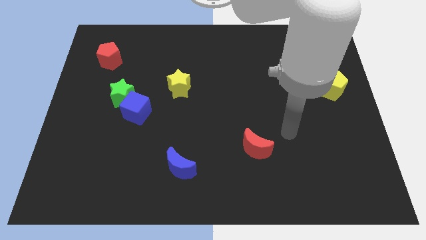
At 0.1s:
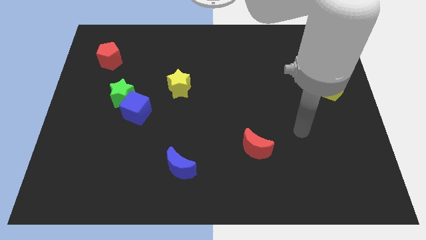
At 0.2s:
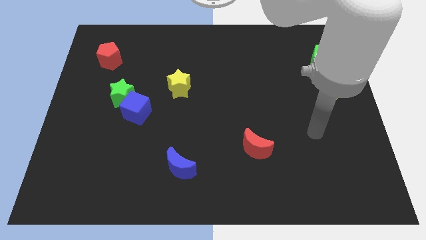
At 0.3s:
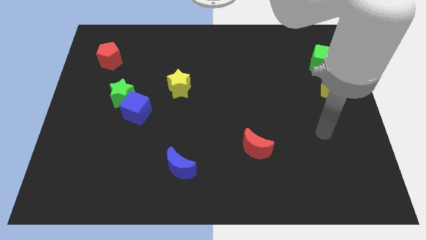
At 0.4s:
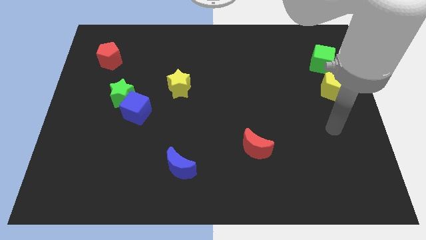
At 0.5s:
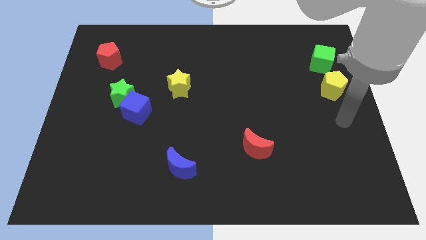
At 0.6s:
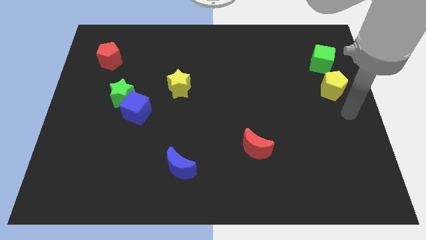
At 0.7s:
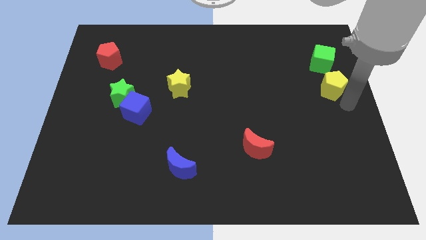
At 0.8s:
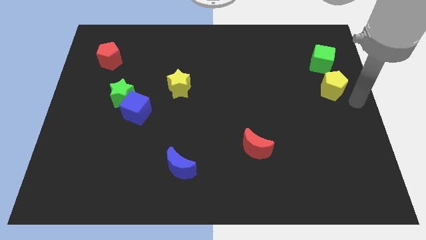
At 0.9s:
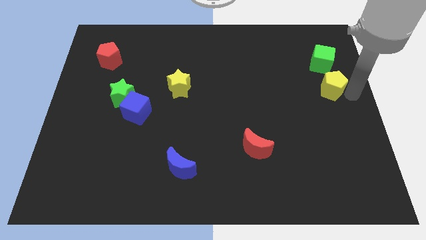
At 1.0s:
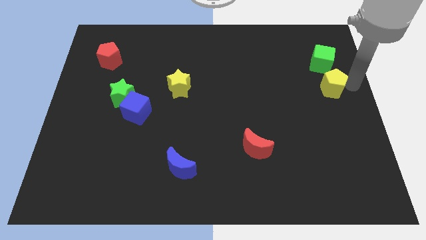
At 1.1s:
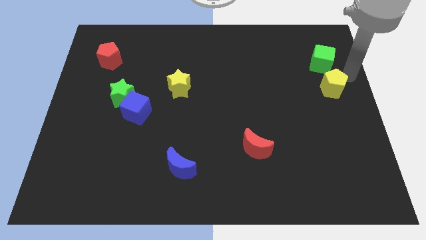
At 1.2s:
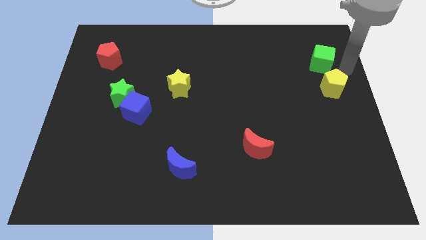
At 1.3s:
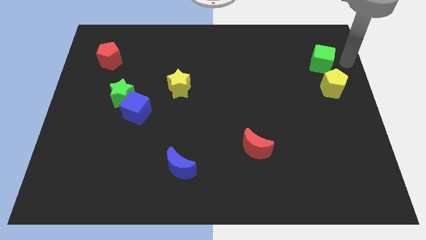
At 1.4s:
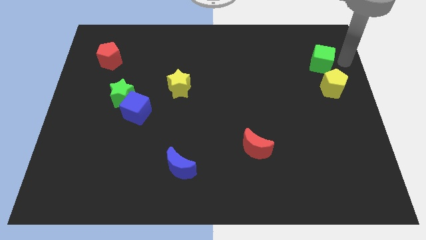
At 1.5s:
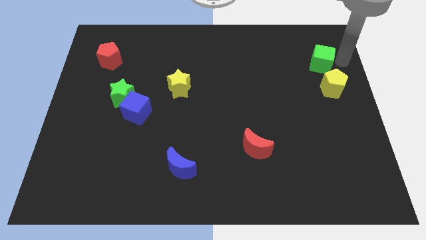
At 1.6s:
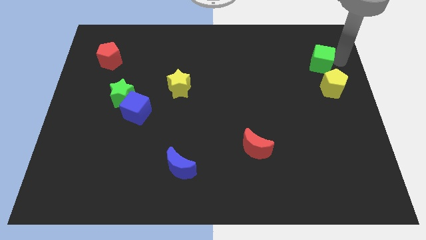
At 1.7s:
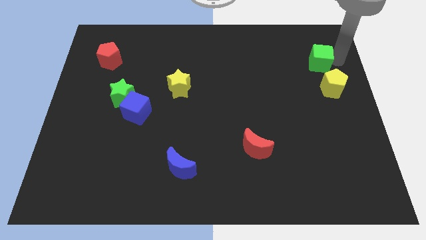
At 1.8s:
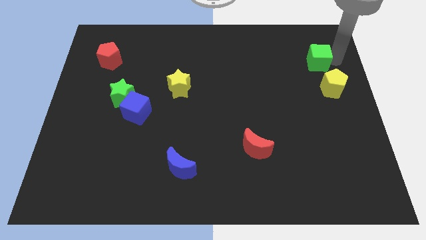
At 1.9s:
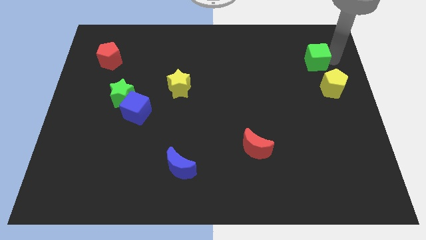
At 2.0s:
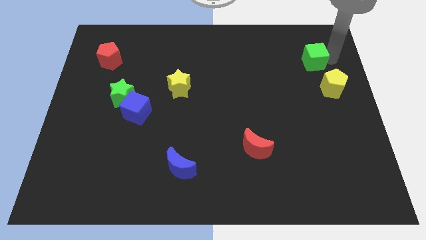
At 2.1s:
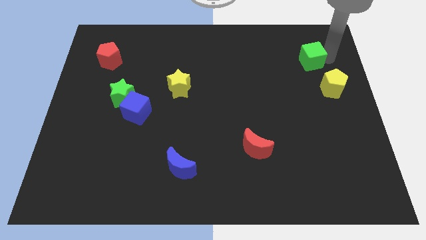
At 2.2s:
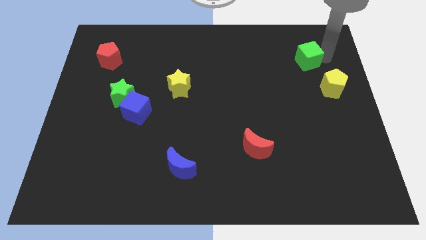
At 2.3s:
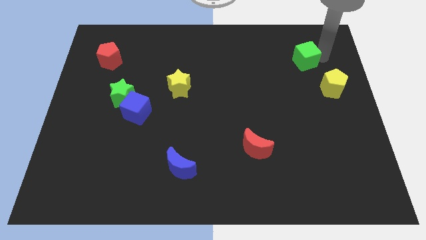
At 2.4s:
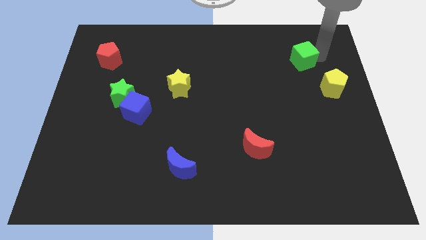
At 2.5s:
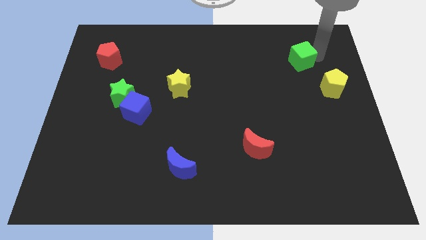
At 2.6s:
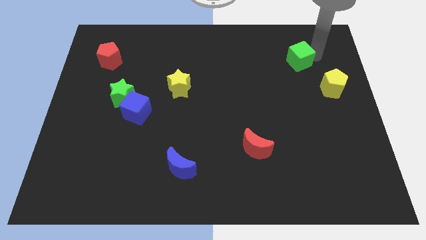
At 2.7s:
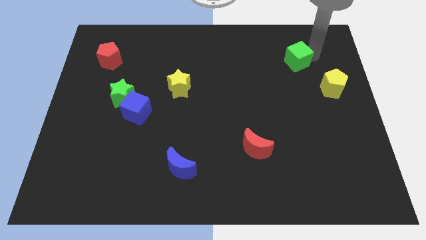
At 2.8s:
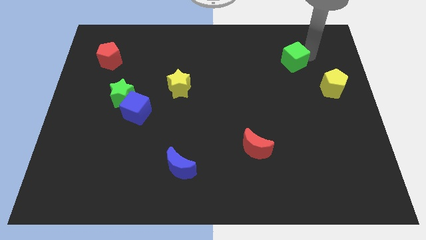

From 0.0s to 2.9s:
slightly push the green cube left

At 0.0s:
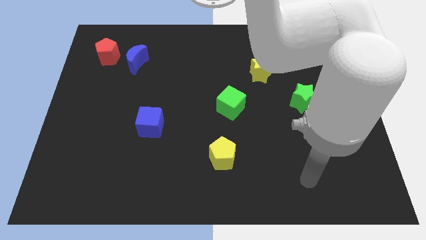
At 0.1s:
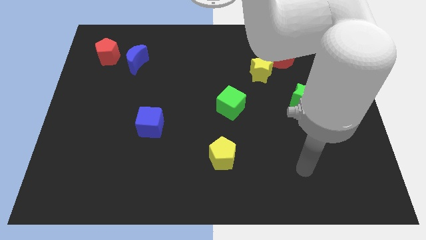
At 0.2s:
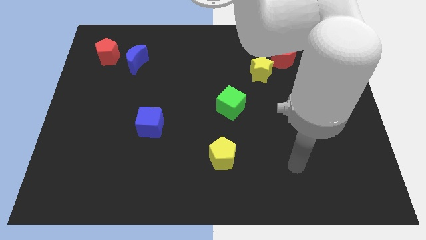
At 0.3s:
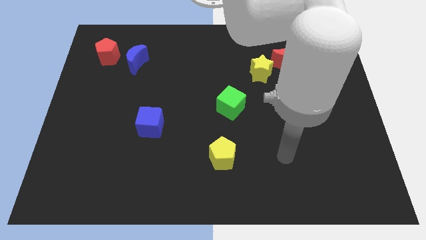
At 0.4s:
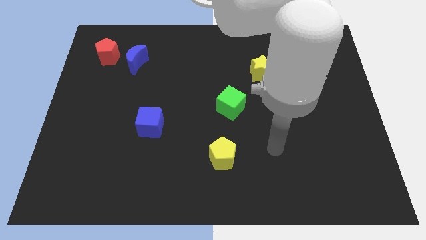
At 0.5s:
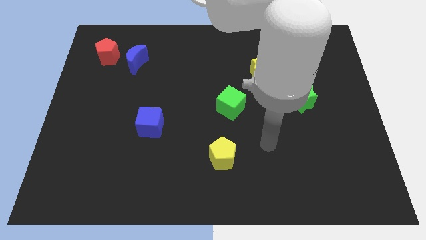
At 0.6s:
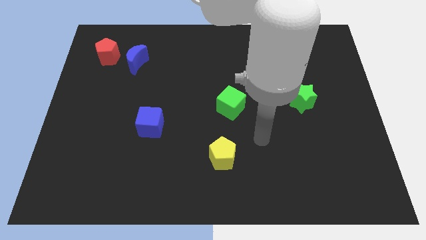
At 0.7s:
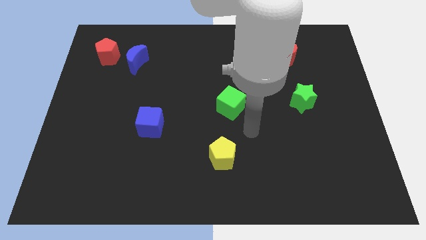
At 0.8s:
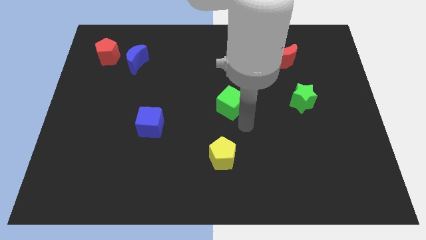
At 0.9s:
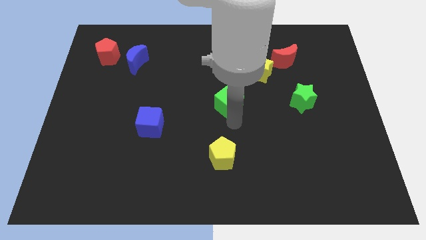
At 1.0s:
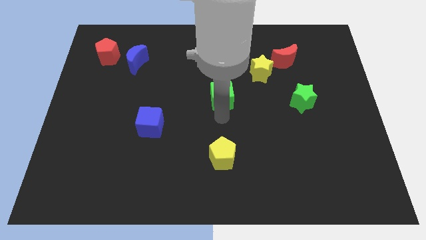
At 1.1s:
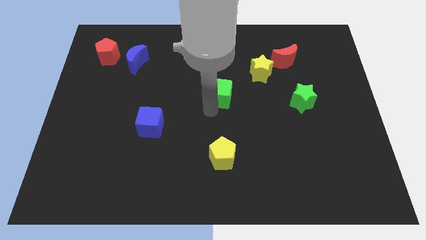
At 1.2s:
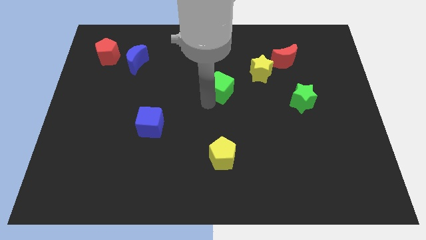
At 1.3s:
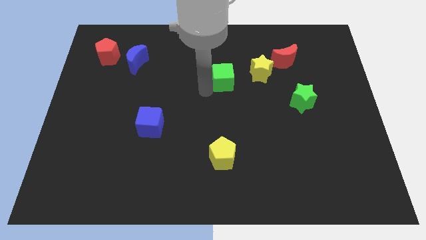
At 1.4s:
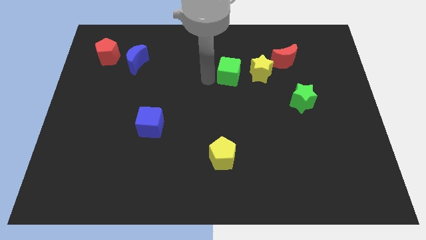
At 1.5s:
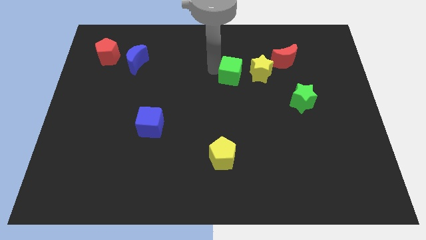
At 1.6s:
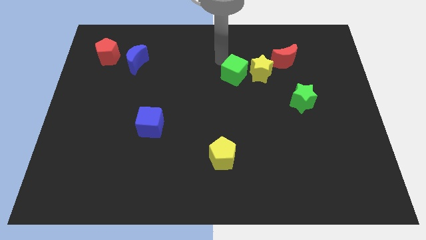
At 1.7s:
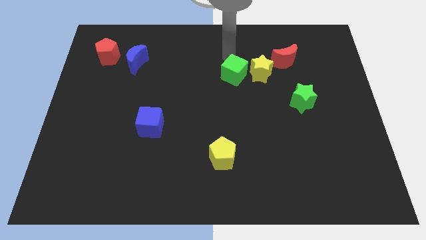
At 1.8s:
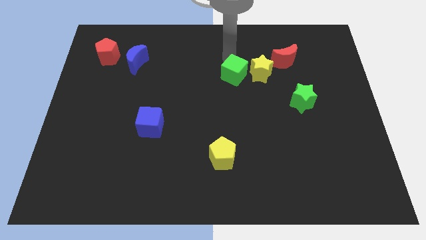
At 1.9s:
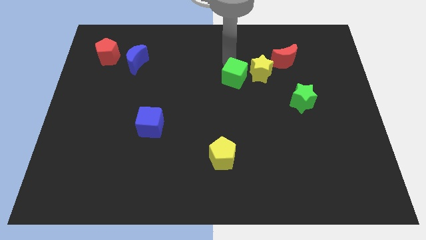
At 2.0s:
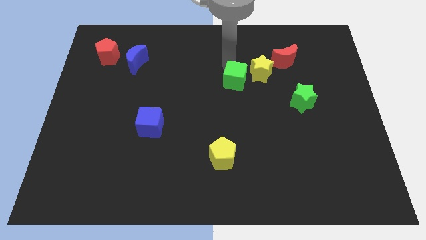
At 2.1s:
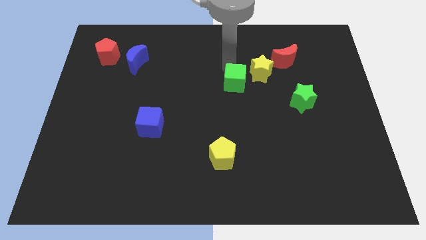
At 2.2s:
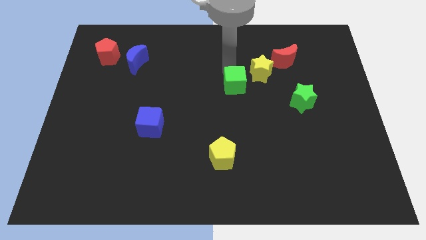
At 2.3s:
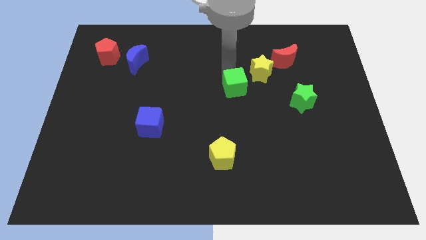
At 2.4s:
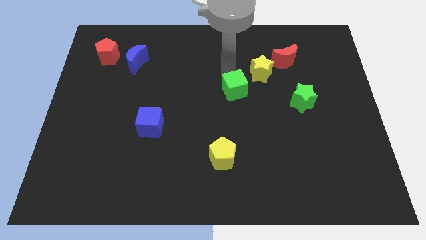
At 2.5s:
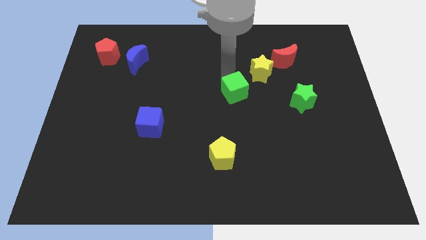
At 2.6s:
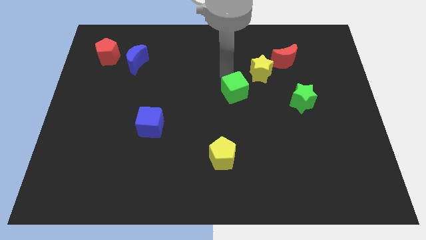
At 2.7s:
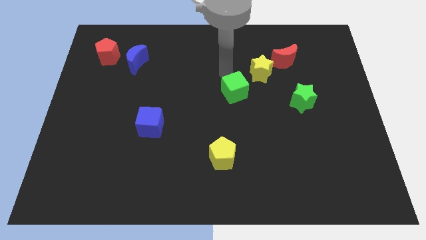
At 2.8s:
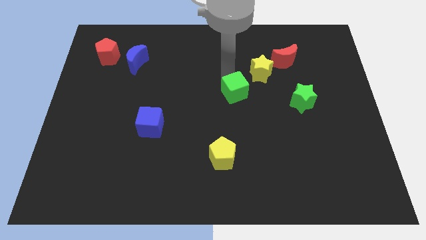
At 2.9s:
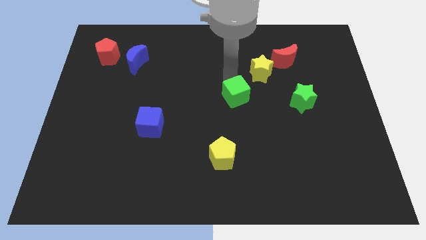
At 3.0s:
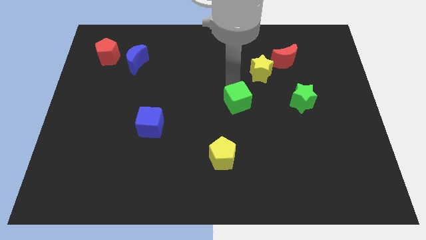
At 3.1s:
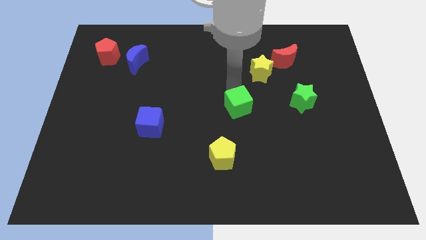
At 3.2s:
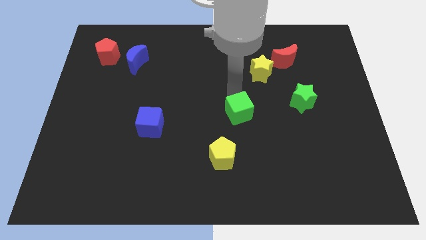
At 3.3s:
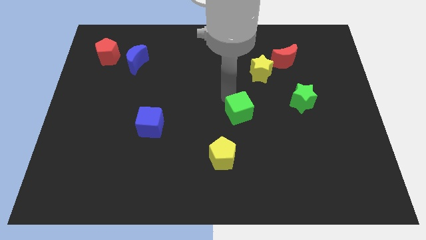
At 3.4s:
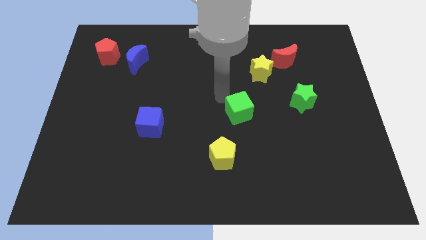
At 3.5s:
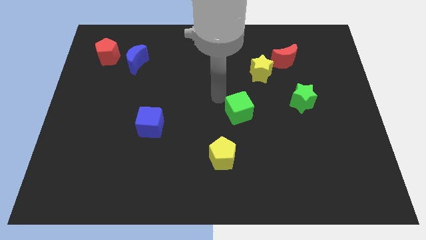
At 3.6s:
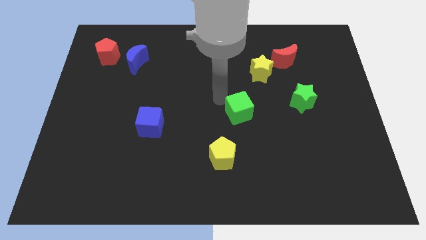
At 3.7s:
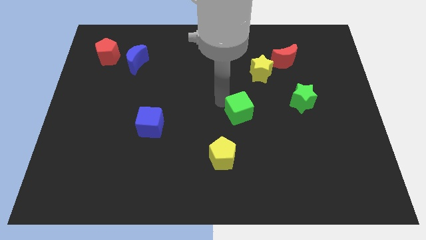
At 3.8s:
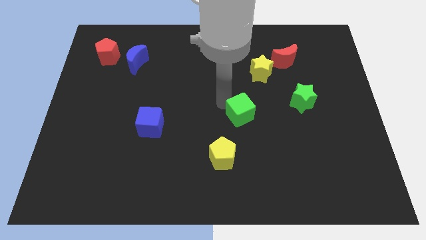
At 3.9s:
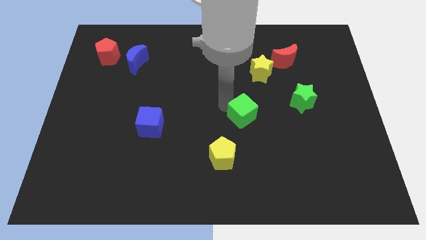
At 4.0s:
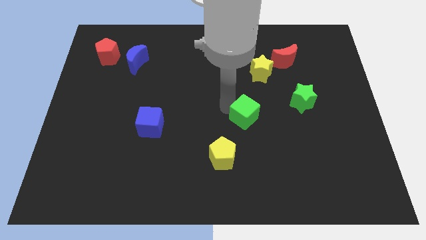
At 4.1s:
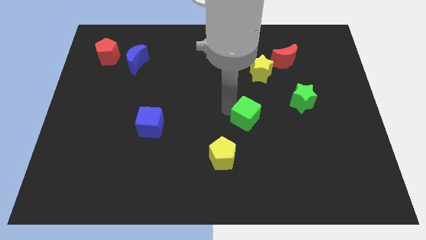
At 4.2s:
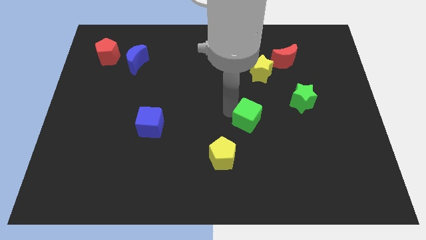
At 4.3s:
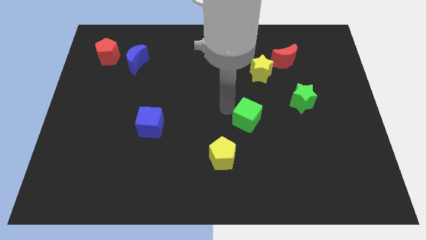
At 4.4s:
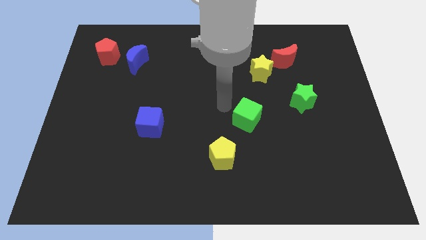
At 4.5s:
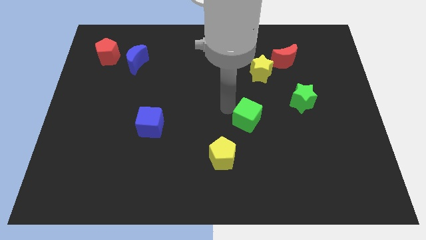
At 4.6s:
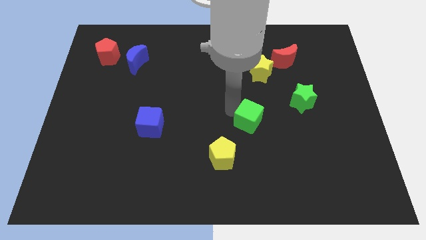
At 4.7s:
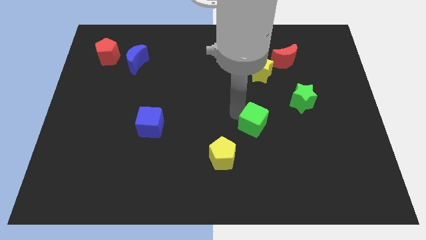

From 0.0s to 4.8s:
slightly slide the green cube down and then right
